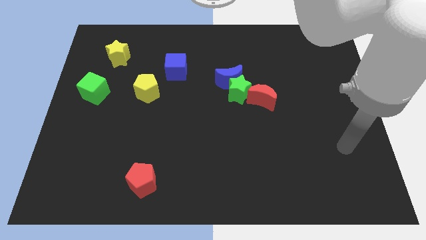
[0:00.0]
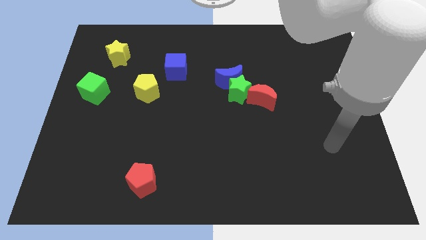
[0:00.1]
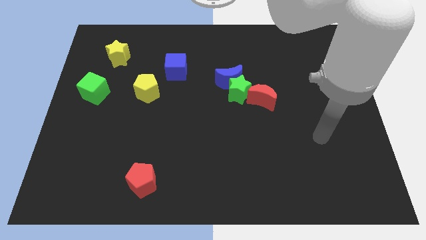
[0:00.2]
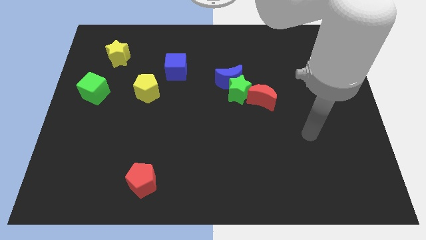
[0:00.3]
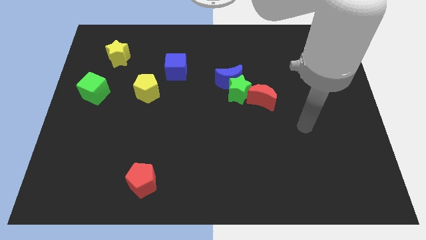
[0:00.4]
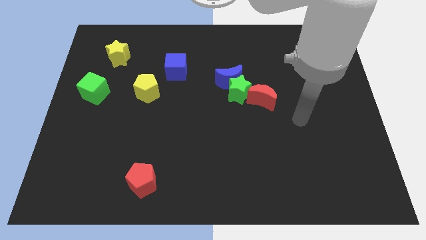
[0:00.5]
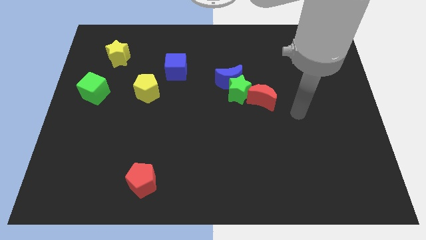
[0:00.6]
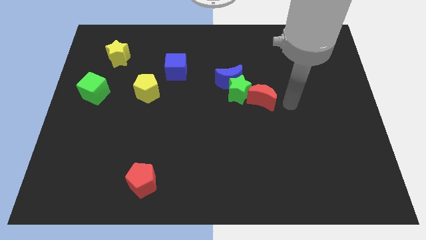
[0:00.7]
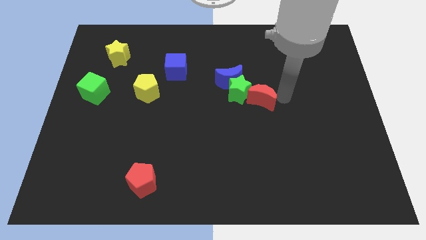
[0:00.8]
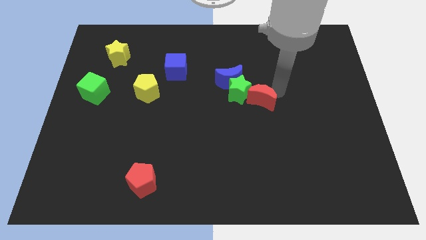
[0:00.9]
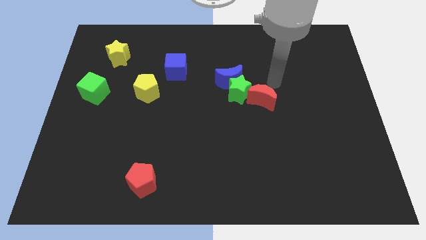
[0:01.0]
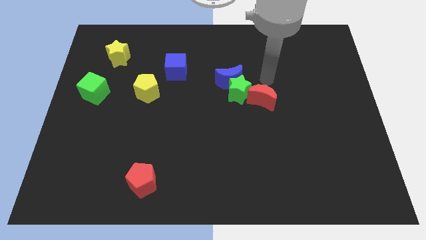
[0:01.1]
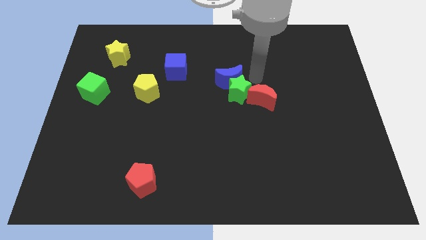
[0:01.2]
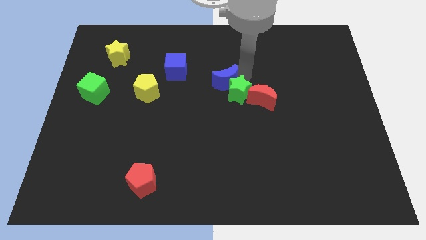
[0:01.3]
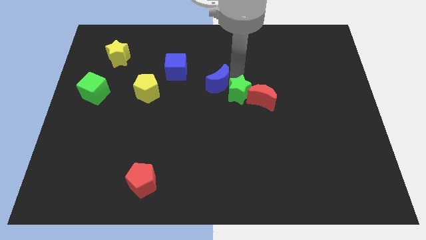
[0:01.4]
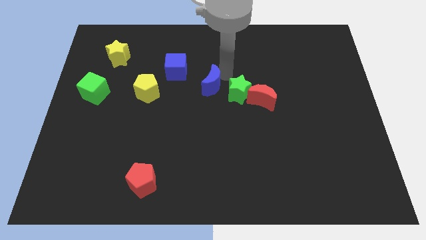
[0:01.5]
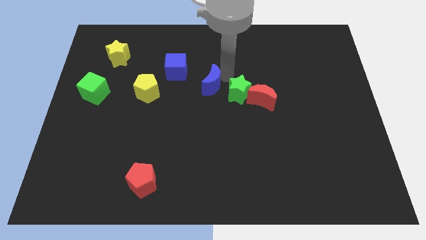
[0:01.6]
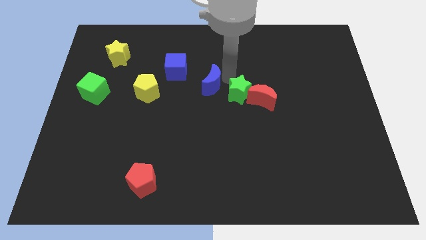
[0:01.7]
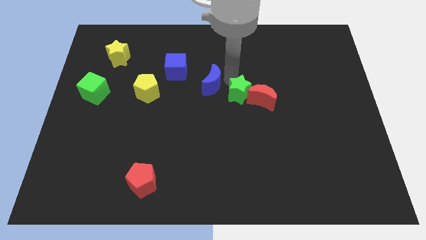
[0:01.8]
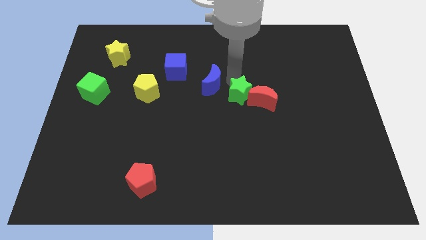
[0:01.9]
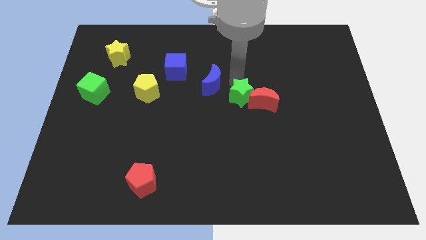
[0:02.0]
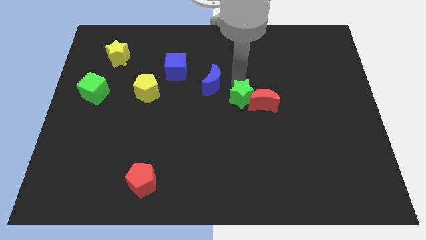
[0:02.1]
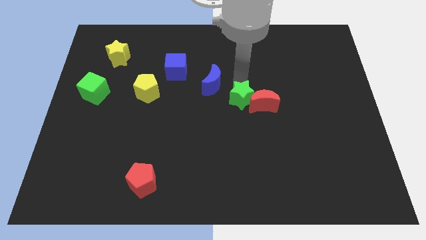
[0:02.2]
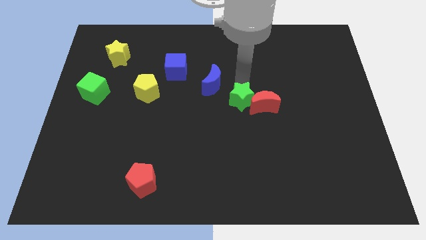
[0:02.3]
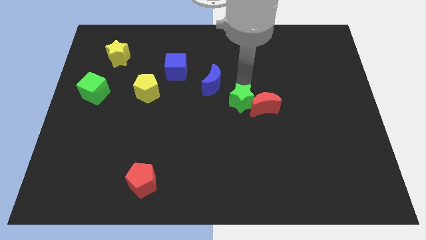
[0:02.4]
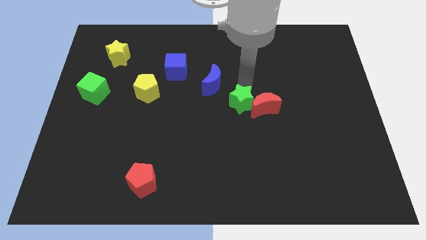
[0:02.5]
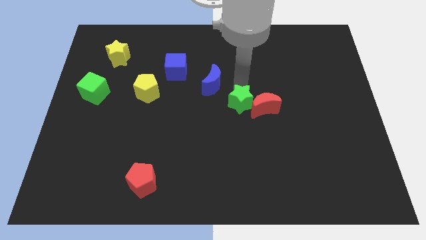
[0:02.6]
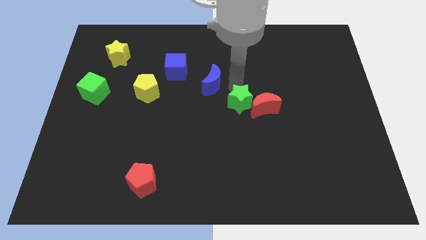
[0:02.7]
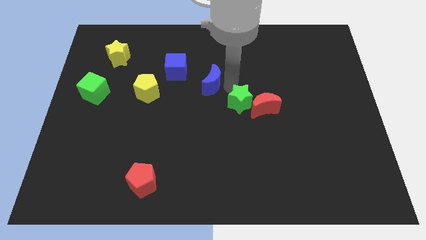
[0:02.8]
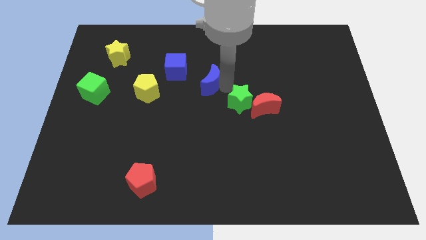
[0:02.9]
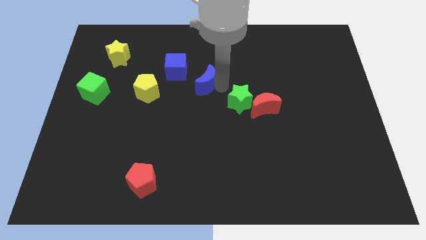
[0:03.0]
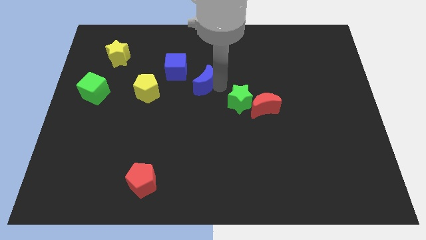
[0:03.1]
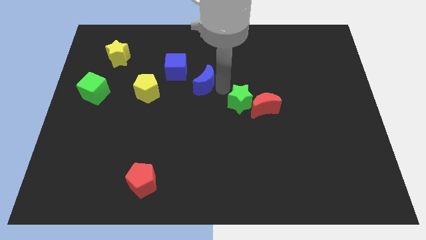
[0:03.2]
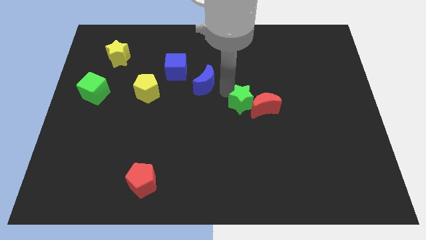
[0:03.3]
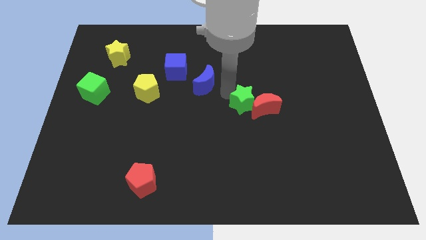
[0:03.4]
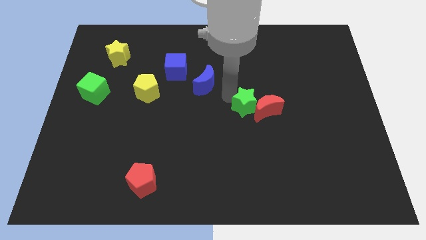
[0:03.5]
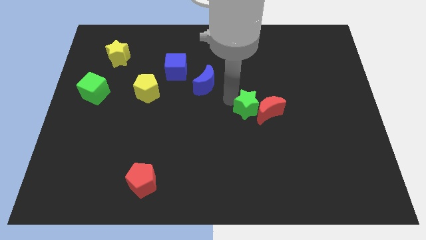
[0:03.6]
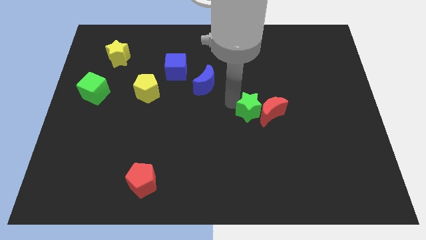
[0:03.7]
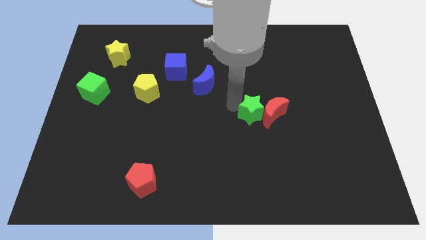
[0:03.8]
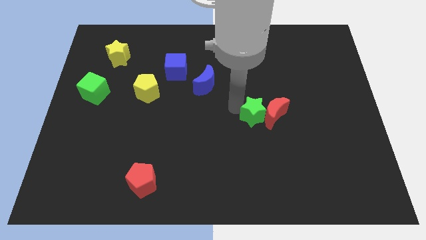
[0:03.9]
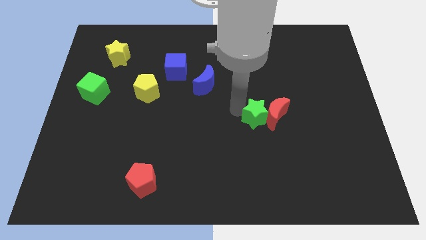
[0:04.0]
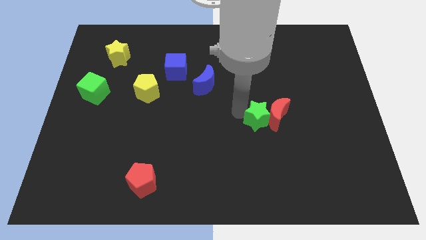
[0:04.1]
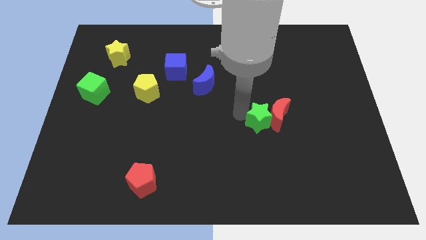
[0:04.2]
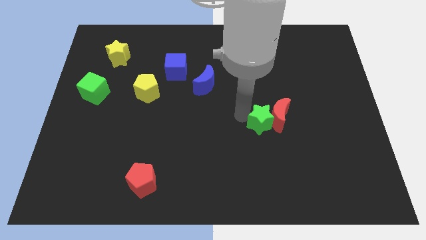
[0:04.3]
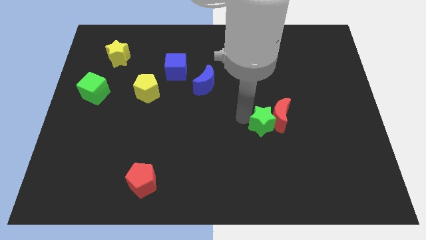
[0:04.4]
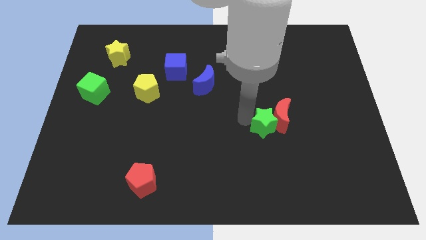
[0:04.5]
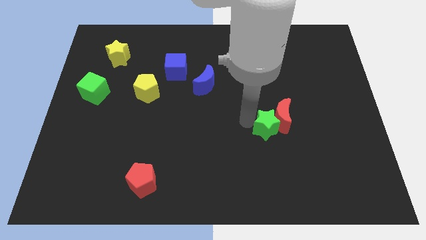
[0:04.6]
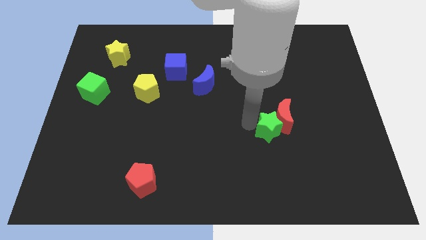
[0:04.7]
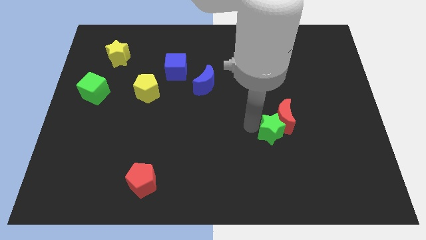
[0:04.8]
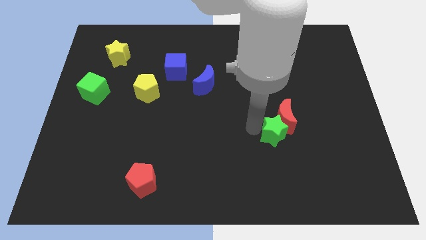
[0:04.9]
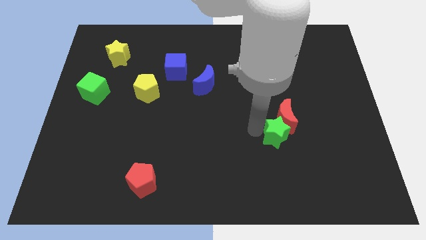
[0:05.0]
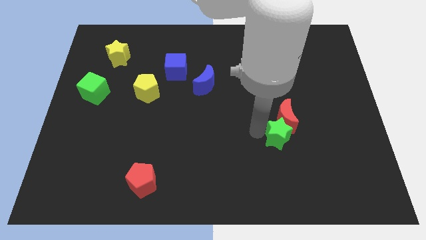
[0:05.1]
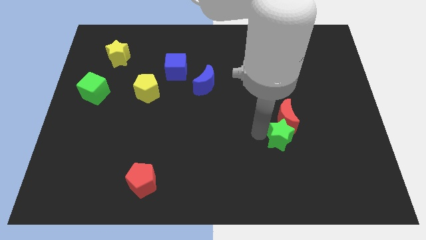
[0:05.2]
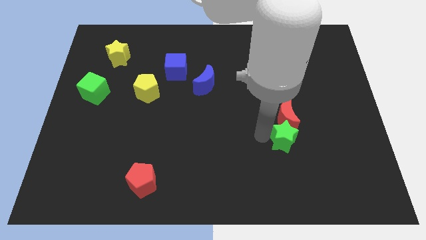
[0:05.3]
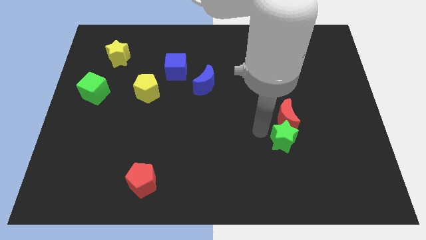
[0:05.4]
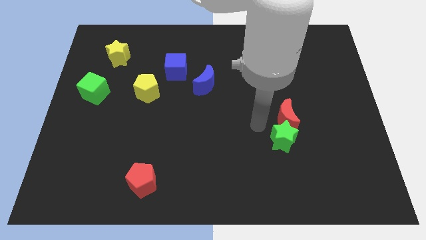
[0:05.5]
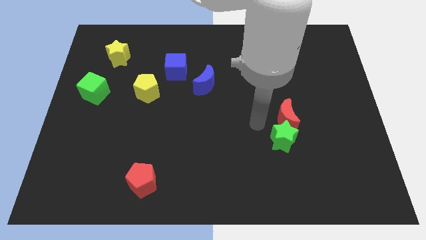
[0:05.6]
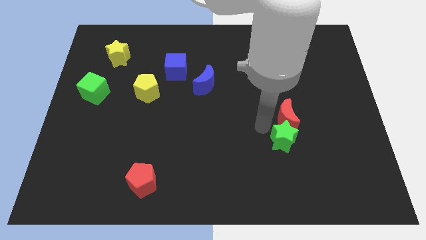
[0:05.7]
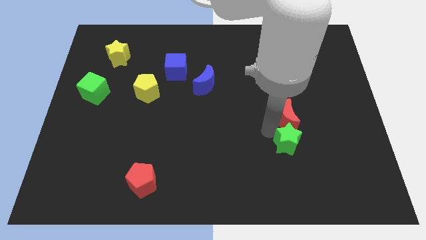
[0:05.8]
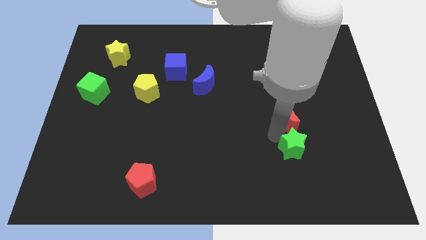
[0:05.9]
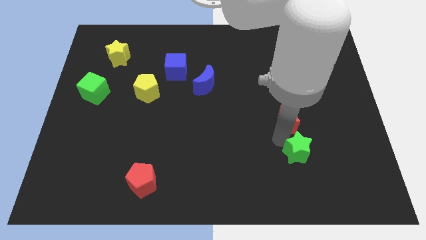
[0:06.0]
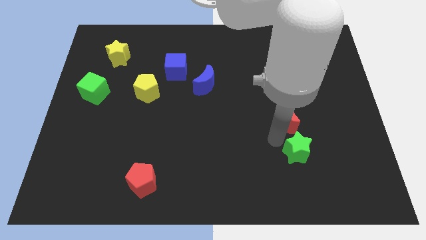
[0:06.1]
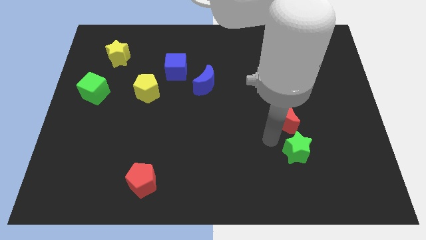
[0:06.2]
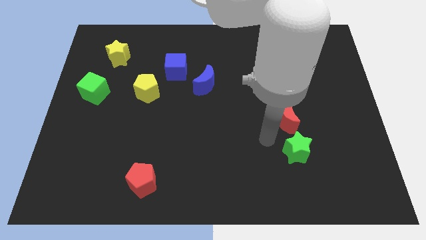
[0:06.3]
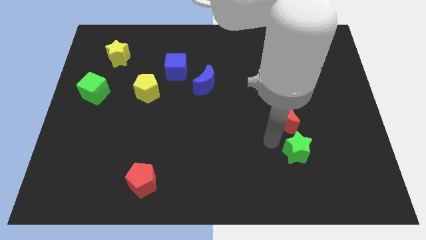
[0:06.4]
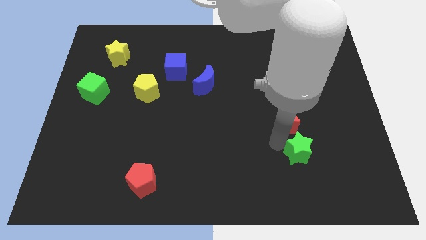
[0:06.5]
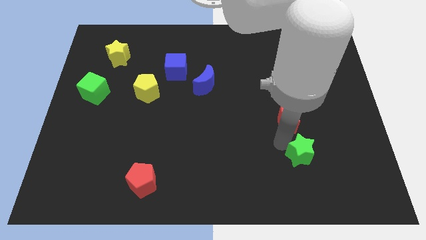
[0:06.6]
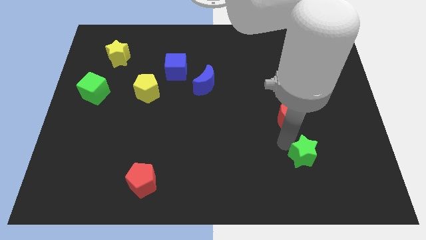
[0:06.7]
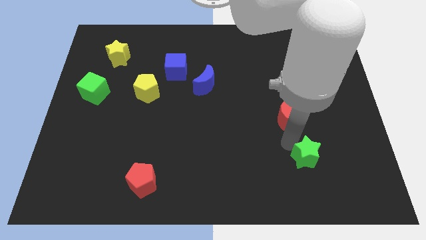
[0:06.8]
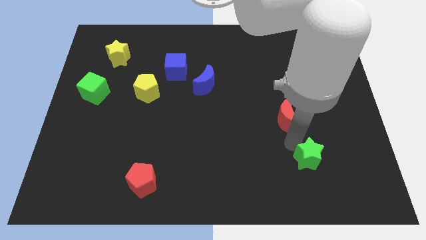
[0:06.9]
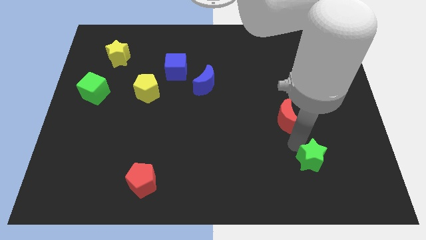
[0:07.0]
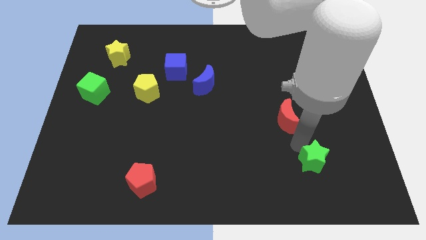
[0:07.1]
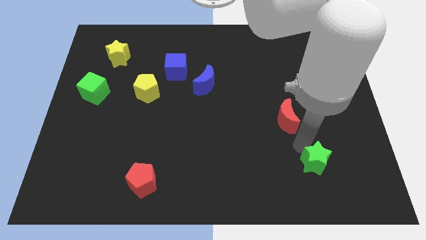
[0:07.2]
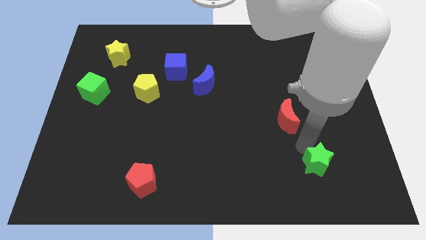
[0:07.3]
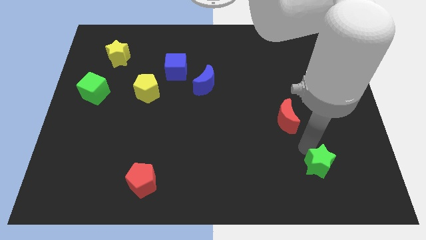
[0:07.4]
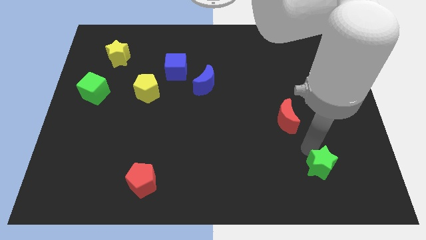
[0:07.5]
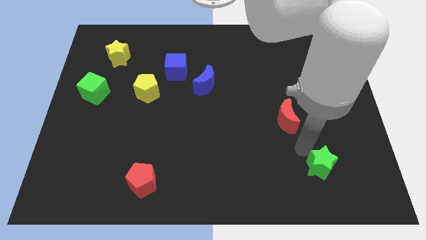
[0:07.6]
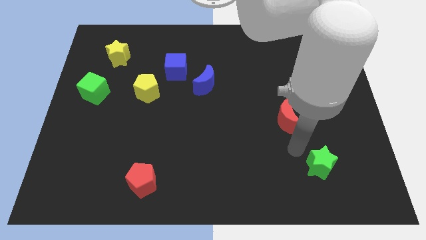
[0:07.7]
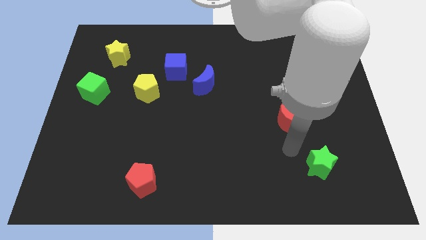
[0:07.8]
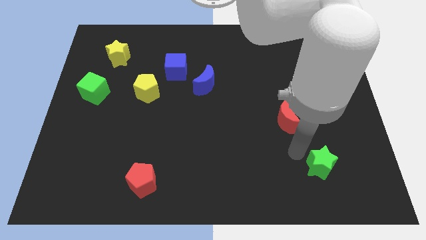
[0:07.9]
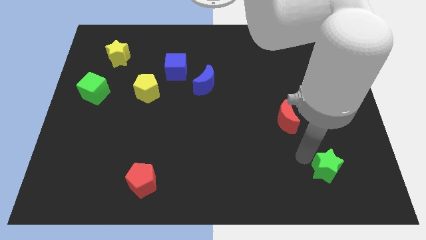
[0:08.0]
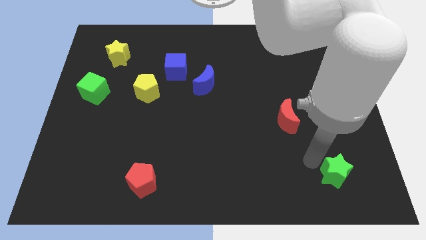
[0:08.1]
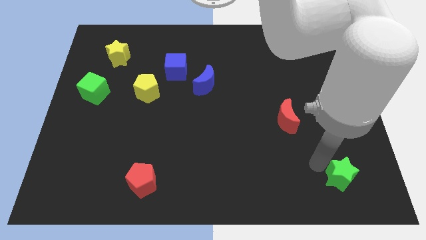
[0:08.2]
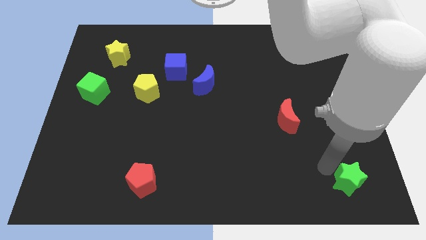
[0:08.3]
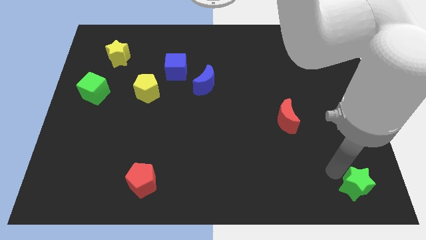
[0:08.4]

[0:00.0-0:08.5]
move the green star to the lower right corner
